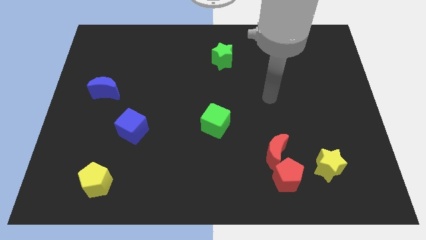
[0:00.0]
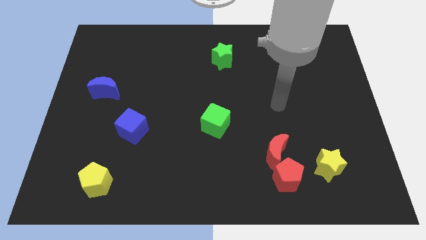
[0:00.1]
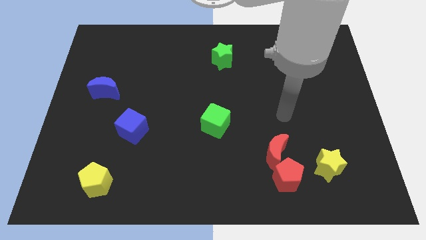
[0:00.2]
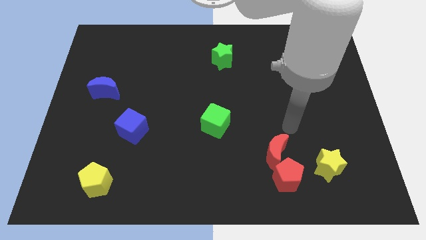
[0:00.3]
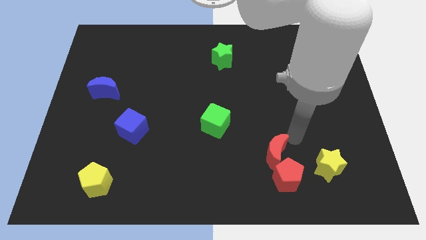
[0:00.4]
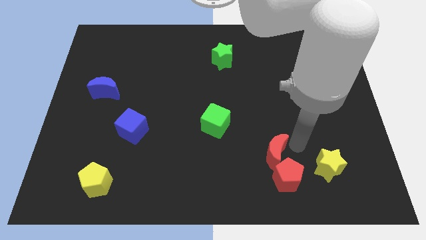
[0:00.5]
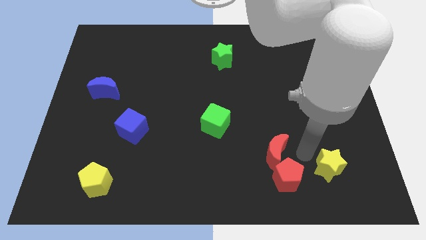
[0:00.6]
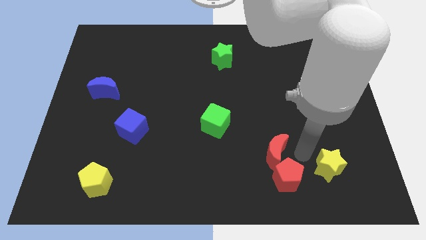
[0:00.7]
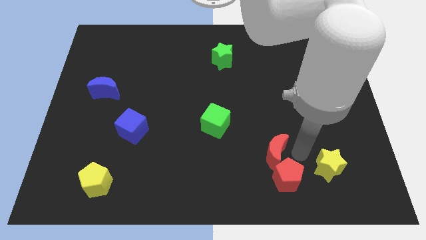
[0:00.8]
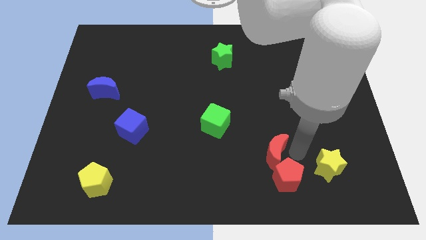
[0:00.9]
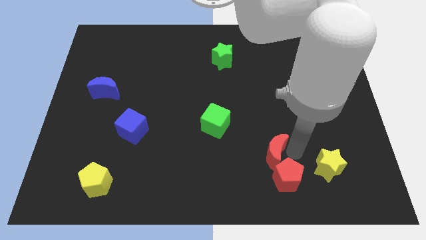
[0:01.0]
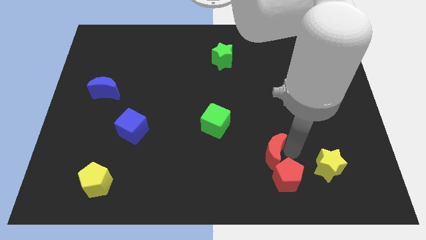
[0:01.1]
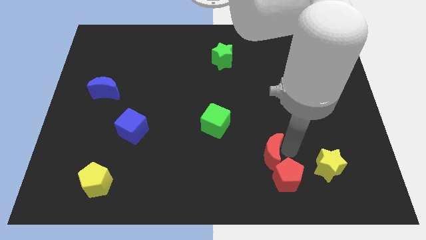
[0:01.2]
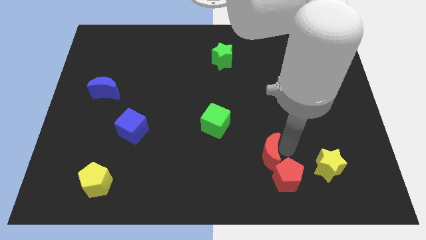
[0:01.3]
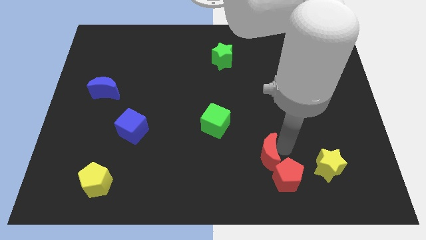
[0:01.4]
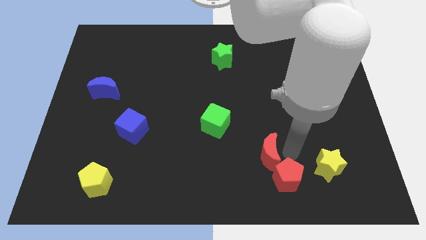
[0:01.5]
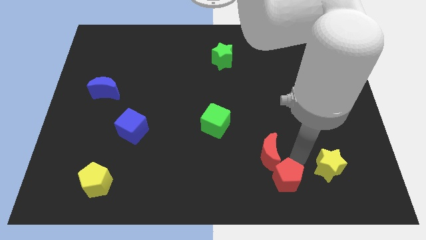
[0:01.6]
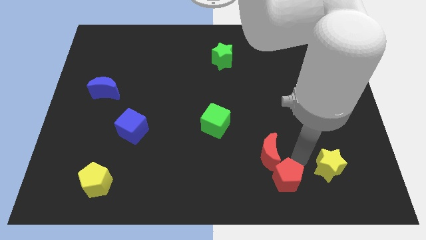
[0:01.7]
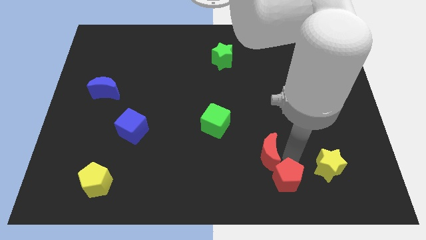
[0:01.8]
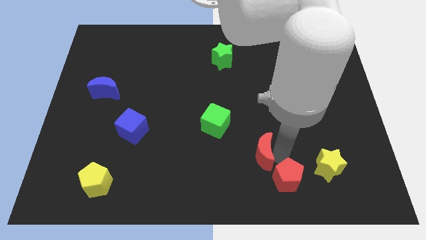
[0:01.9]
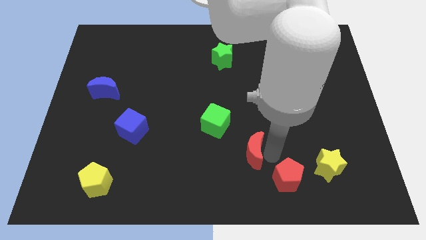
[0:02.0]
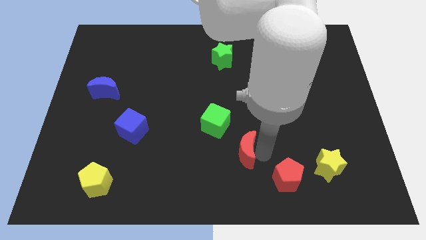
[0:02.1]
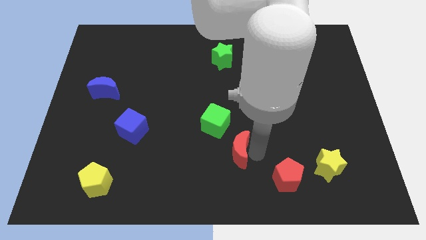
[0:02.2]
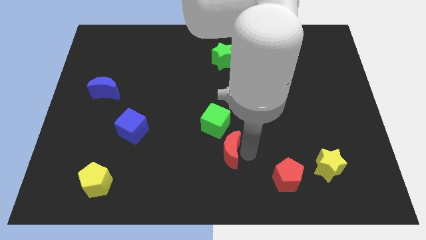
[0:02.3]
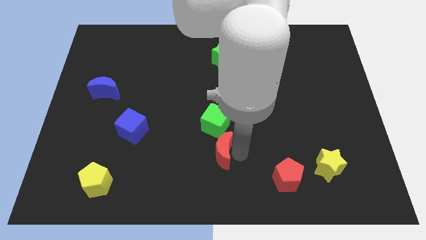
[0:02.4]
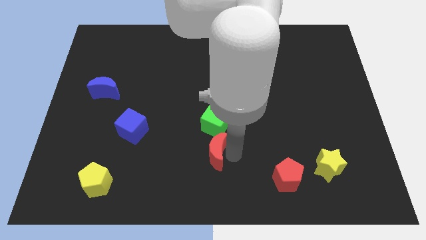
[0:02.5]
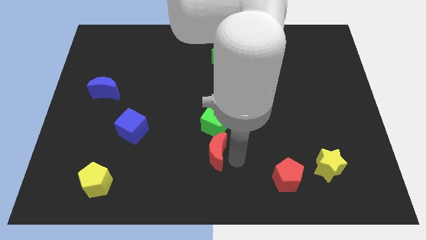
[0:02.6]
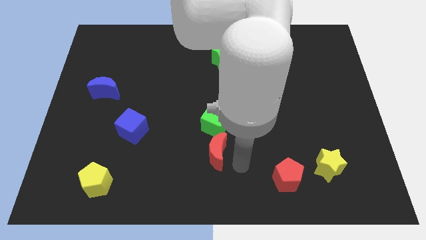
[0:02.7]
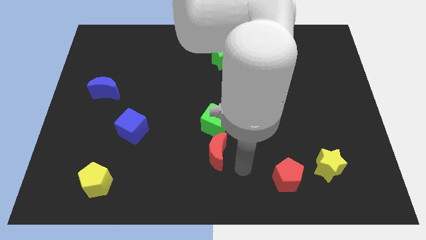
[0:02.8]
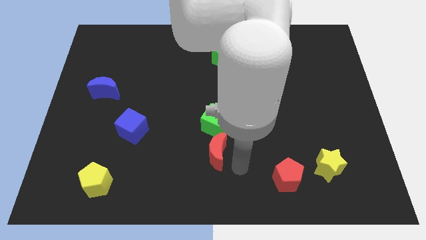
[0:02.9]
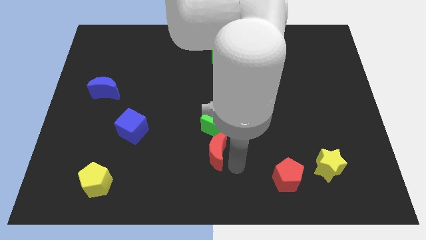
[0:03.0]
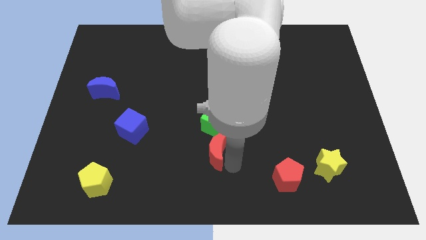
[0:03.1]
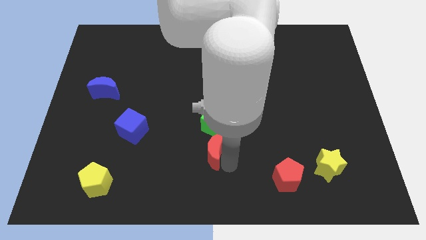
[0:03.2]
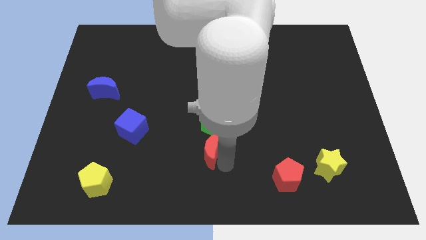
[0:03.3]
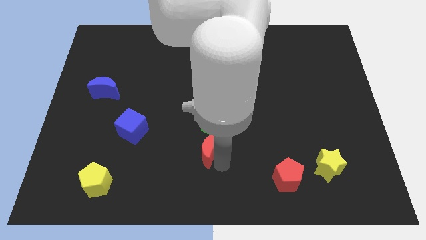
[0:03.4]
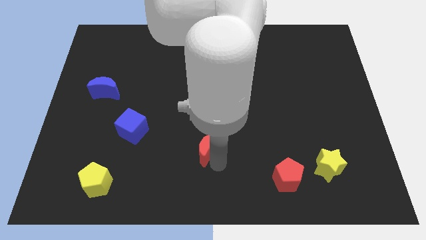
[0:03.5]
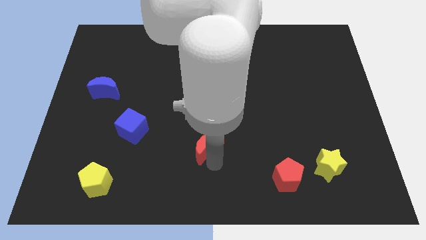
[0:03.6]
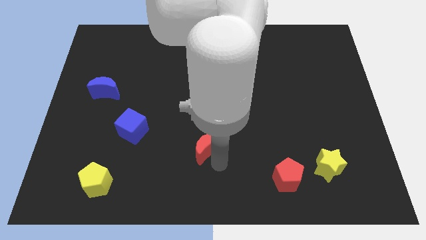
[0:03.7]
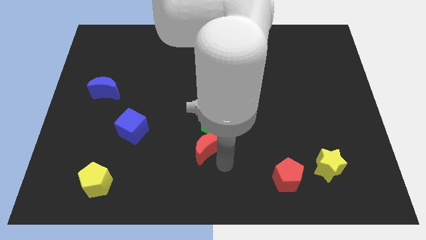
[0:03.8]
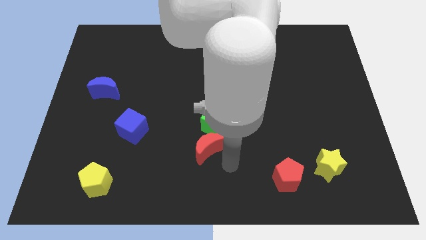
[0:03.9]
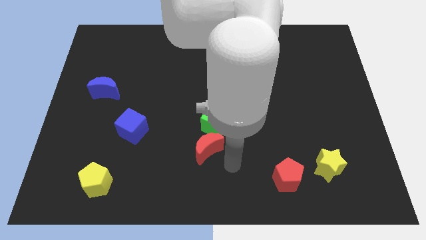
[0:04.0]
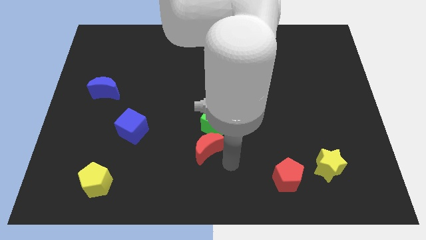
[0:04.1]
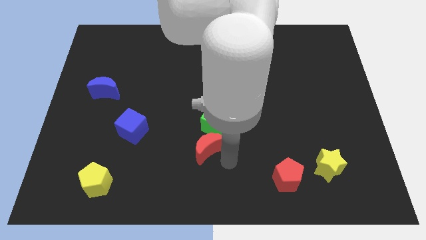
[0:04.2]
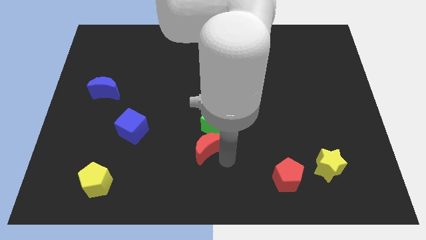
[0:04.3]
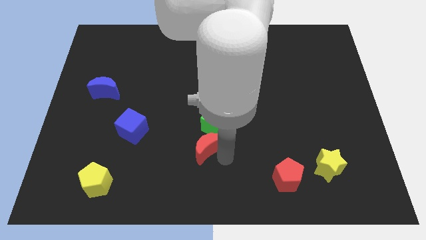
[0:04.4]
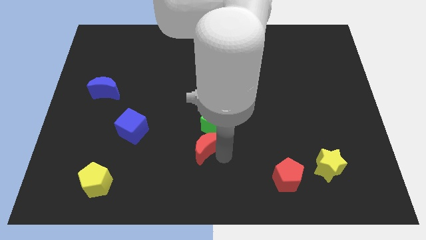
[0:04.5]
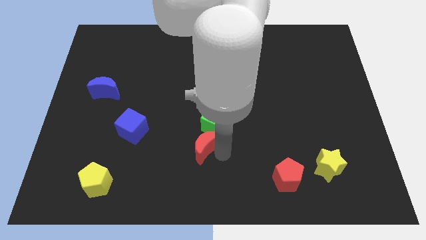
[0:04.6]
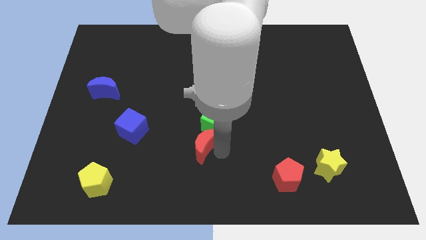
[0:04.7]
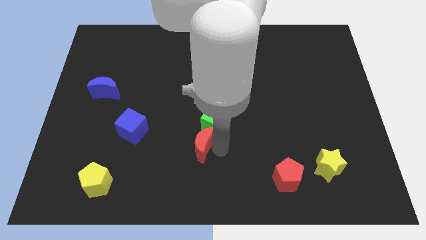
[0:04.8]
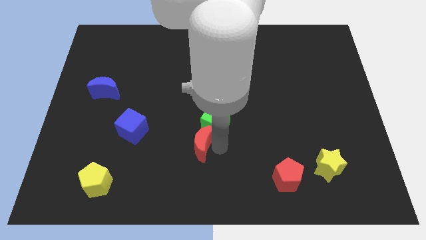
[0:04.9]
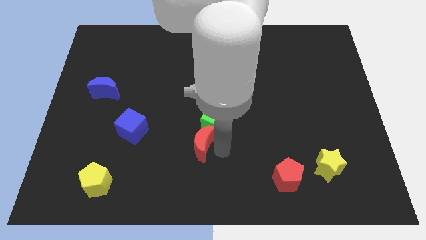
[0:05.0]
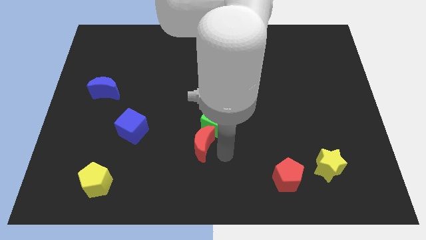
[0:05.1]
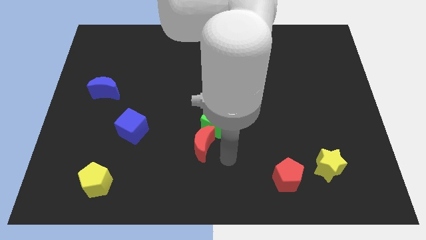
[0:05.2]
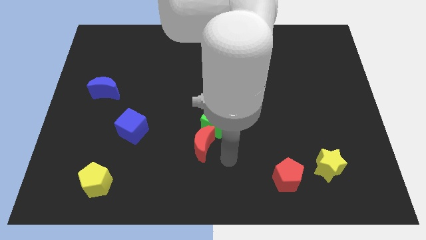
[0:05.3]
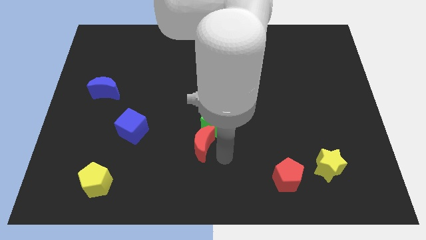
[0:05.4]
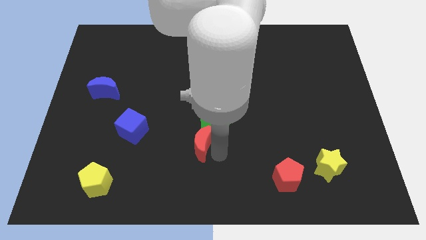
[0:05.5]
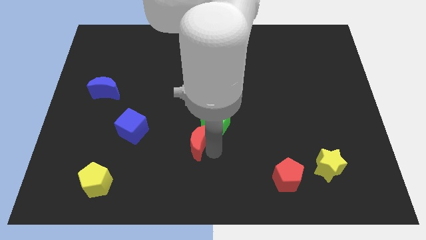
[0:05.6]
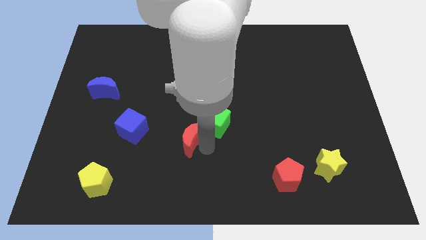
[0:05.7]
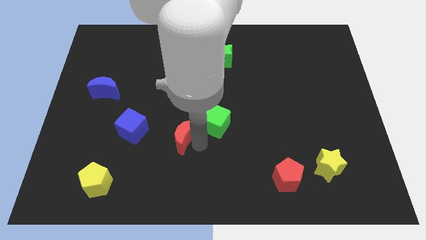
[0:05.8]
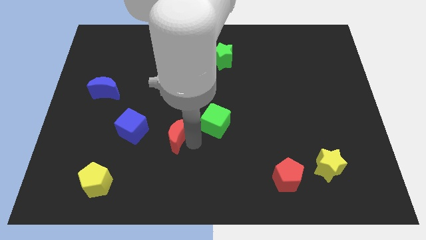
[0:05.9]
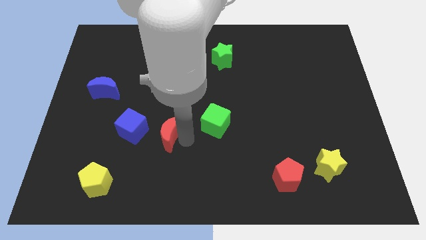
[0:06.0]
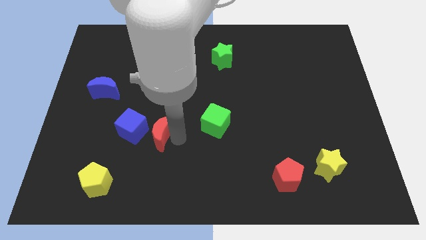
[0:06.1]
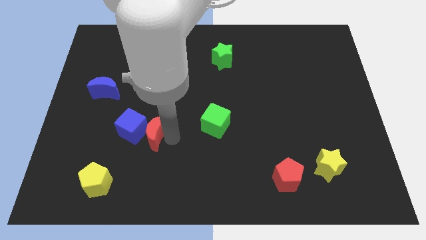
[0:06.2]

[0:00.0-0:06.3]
push the red moon close to the blue cube

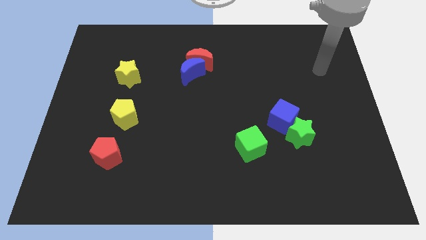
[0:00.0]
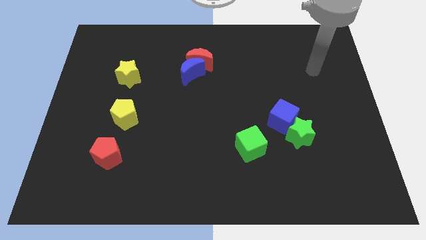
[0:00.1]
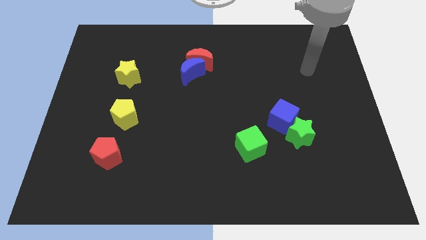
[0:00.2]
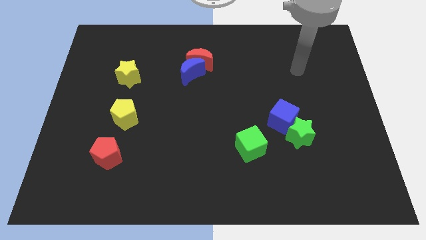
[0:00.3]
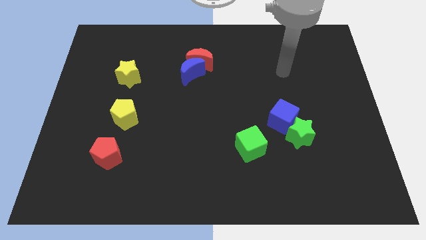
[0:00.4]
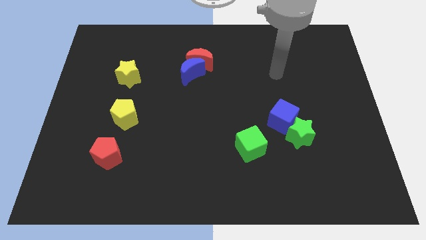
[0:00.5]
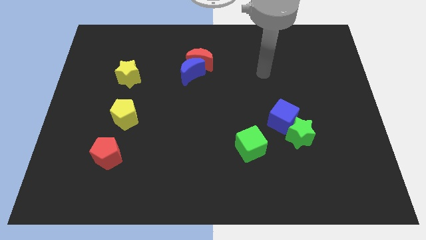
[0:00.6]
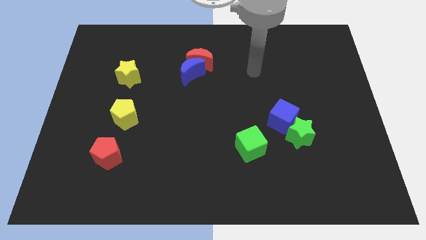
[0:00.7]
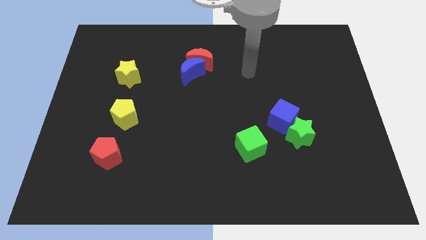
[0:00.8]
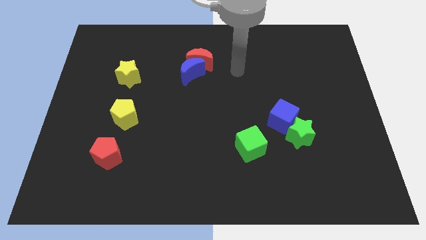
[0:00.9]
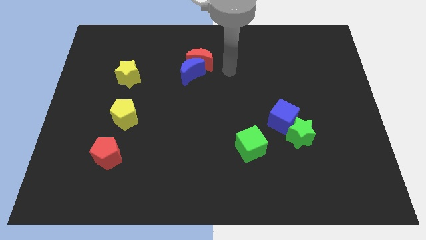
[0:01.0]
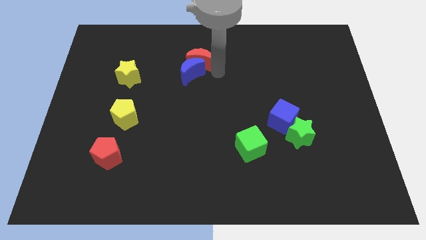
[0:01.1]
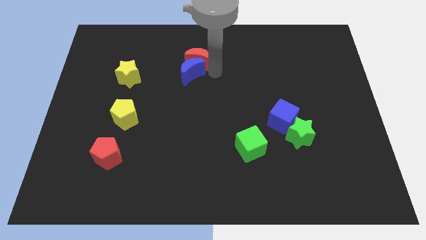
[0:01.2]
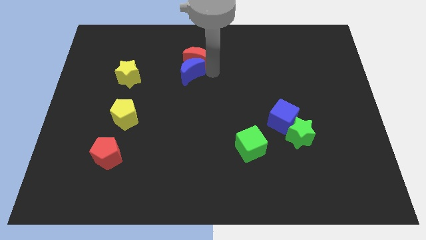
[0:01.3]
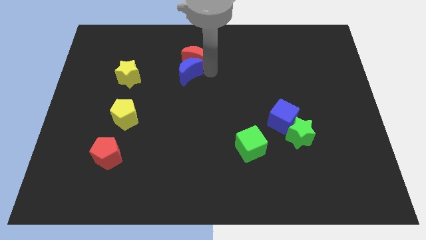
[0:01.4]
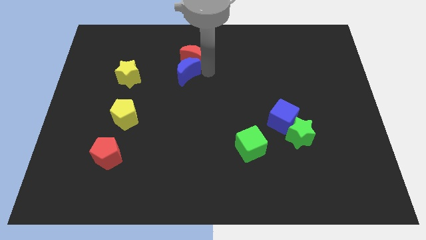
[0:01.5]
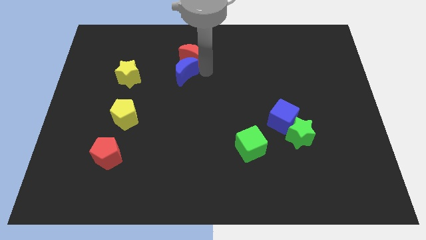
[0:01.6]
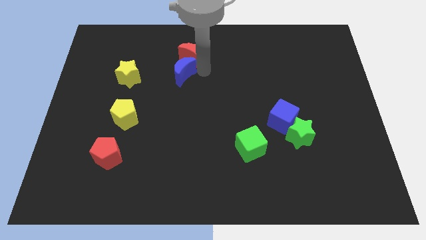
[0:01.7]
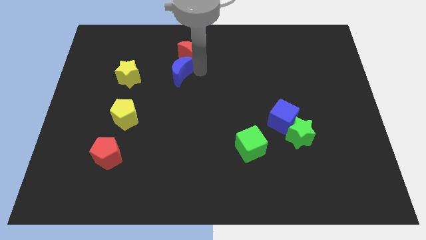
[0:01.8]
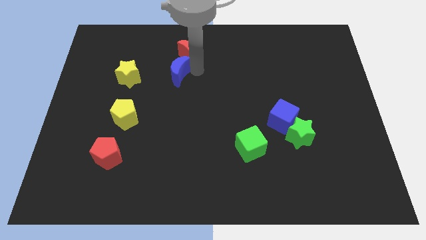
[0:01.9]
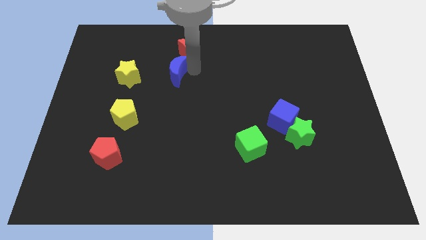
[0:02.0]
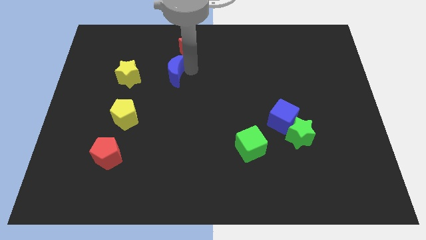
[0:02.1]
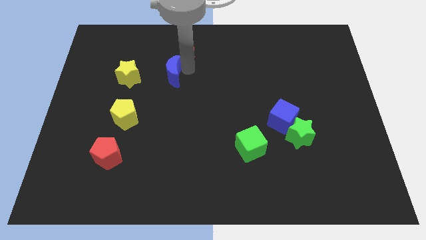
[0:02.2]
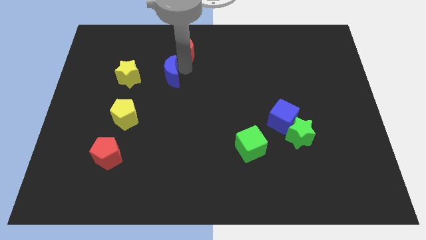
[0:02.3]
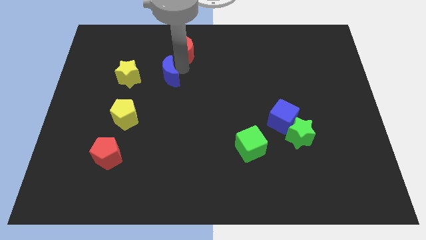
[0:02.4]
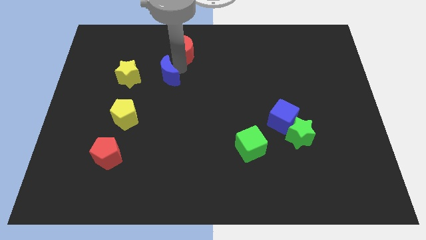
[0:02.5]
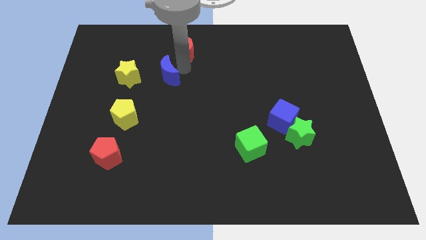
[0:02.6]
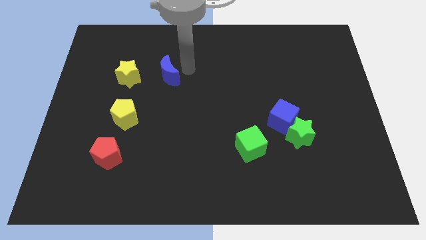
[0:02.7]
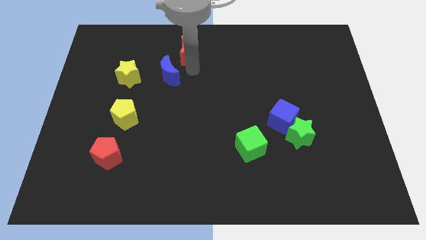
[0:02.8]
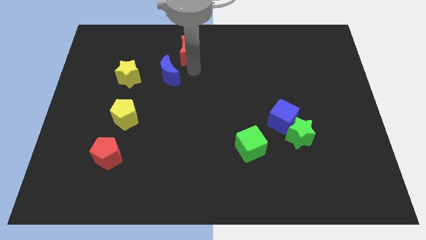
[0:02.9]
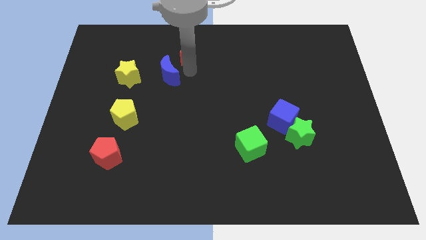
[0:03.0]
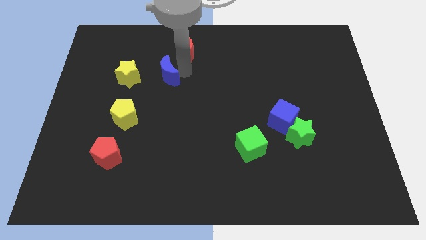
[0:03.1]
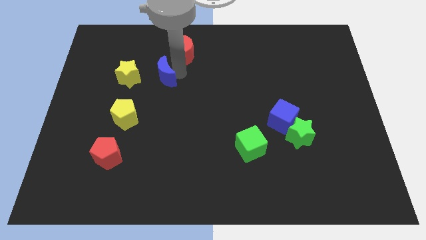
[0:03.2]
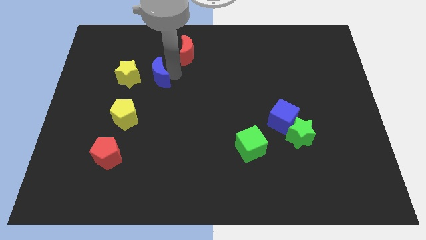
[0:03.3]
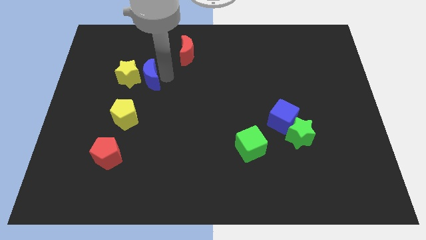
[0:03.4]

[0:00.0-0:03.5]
put the blue moon close to the yellow star
